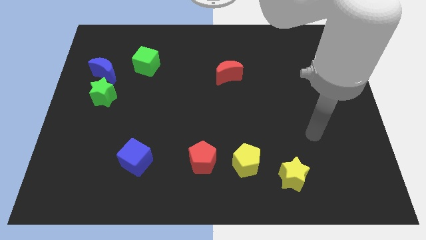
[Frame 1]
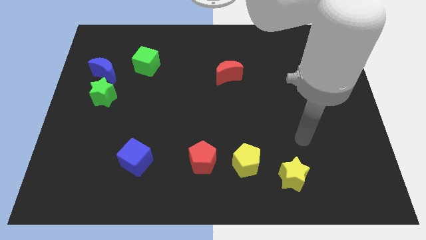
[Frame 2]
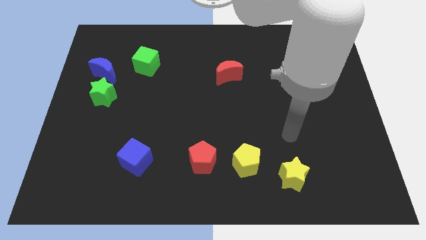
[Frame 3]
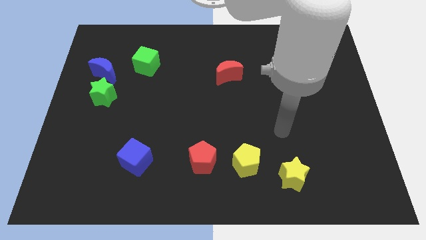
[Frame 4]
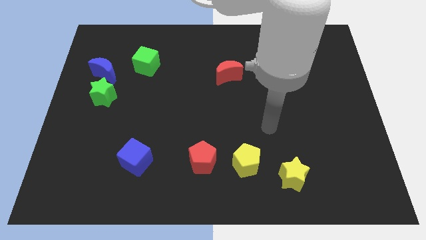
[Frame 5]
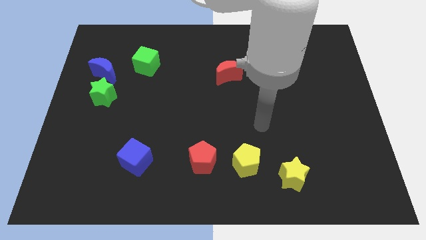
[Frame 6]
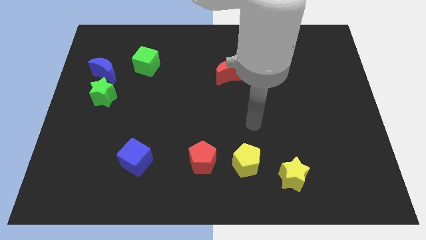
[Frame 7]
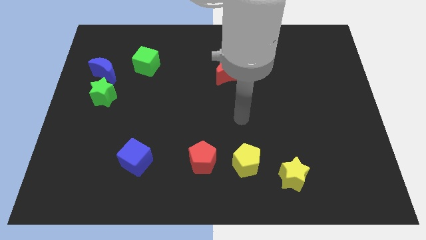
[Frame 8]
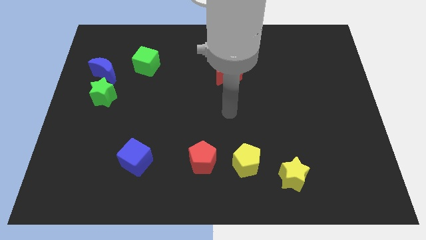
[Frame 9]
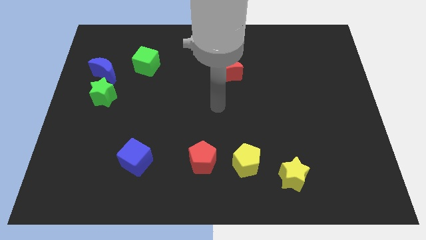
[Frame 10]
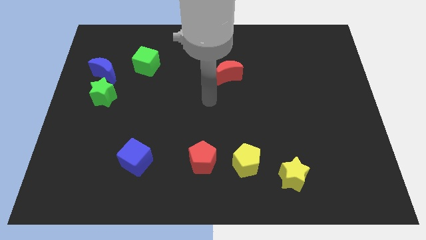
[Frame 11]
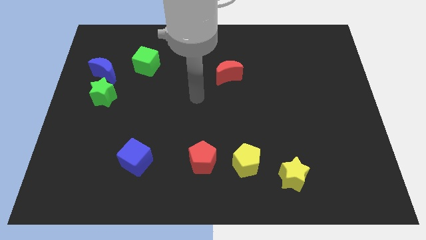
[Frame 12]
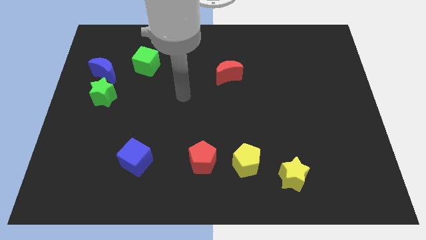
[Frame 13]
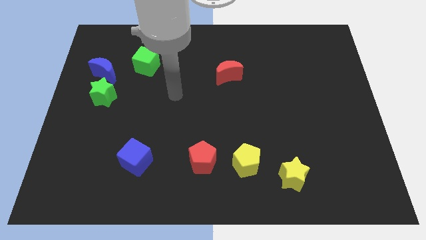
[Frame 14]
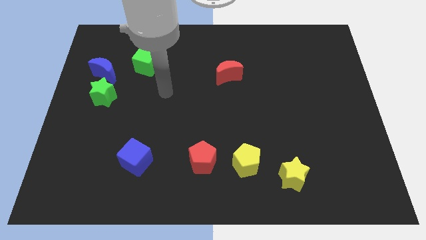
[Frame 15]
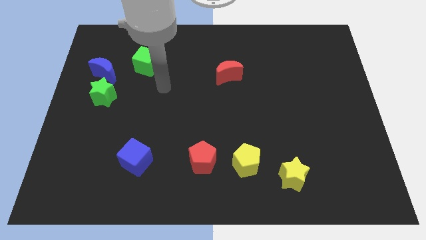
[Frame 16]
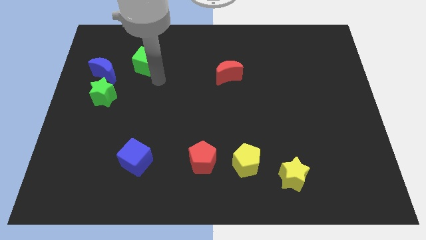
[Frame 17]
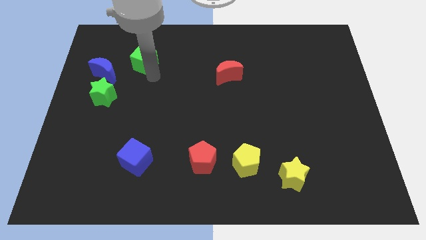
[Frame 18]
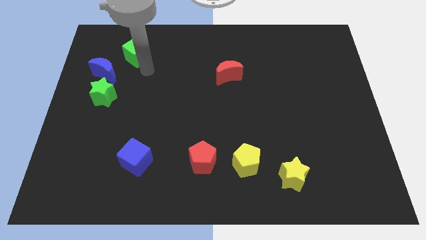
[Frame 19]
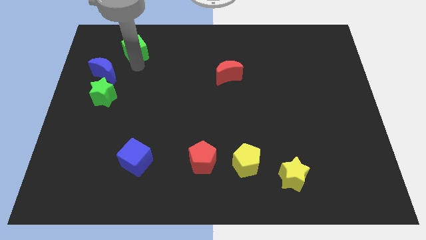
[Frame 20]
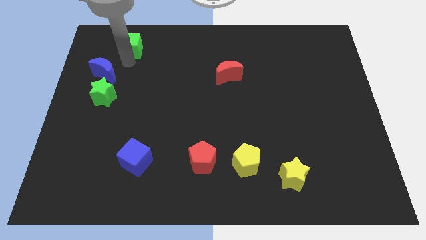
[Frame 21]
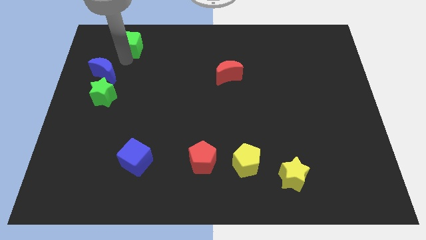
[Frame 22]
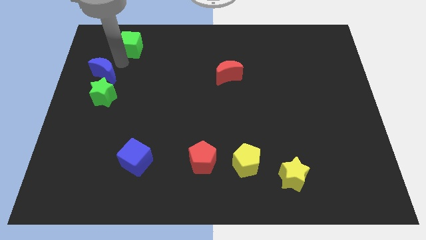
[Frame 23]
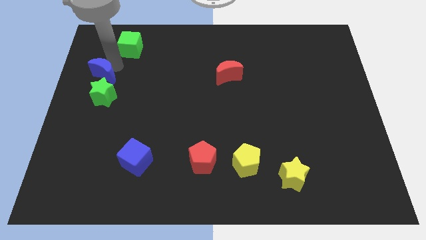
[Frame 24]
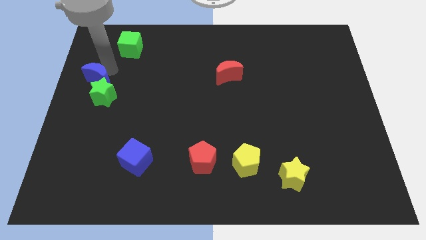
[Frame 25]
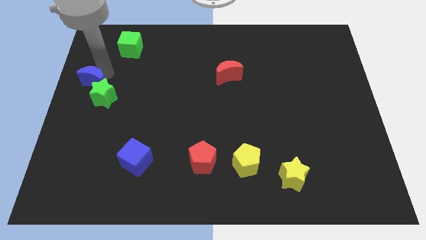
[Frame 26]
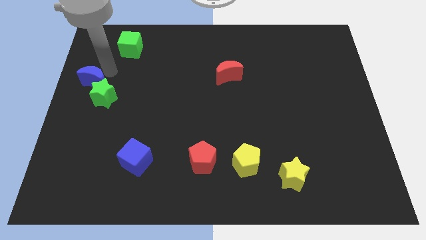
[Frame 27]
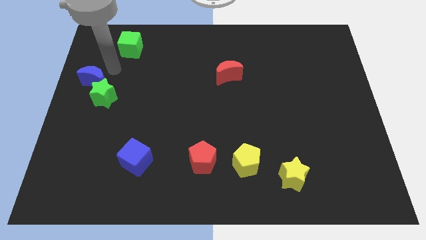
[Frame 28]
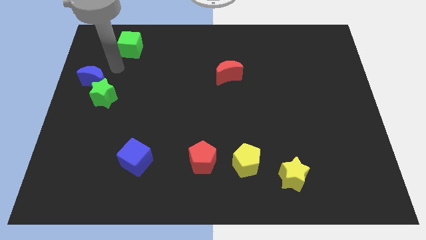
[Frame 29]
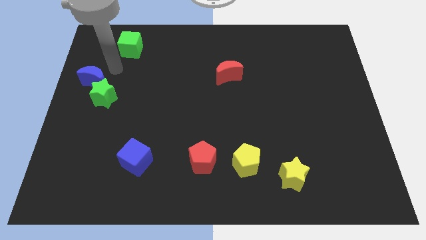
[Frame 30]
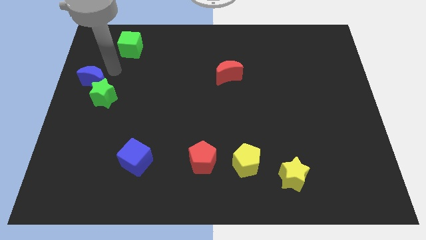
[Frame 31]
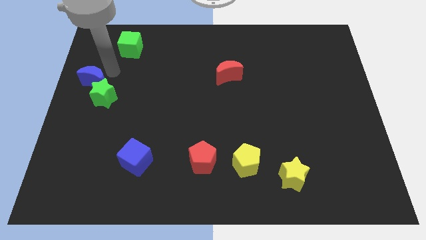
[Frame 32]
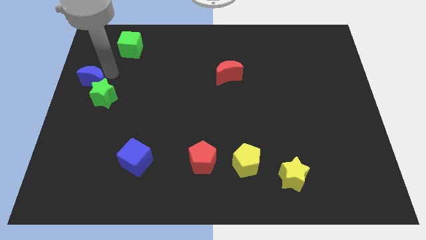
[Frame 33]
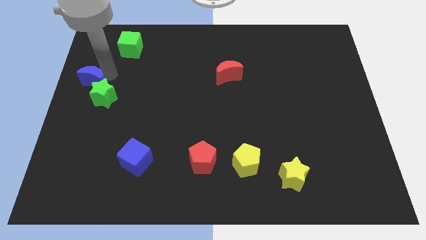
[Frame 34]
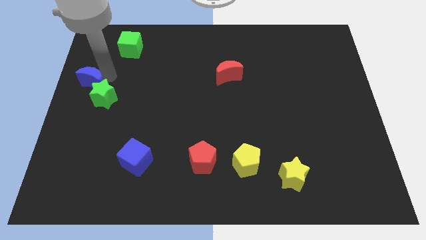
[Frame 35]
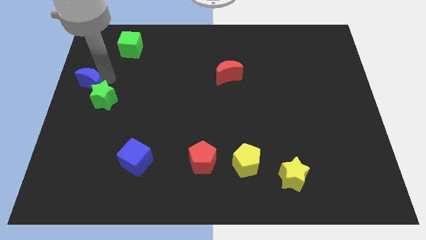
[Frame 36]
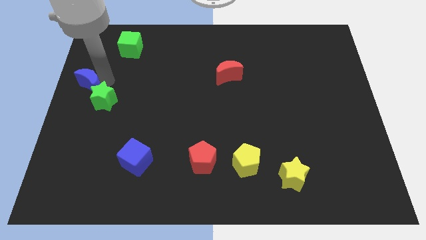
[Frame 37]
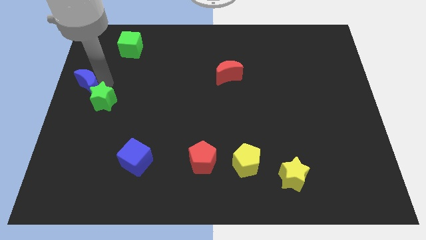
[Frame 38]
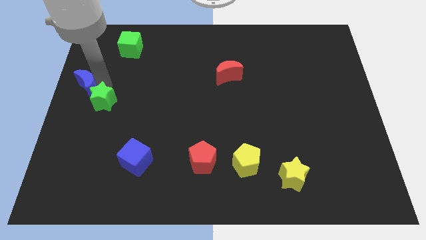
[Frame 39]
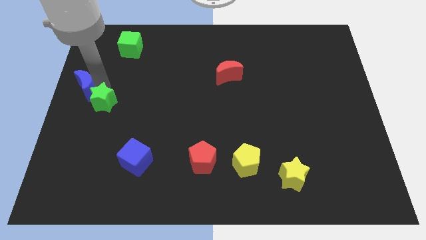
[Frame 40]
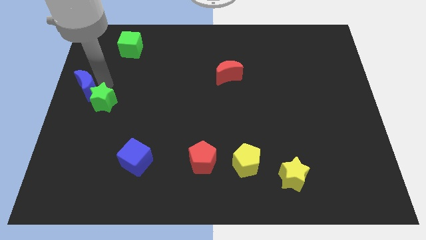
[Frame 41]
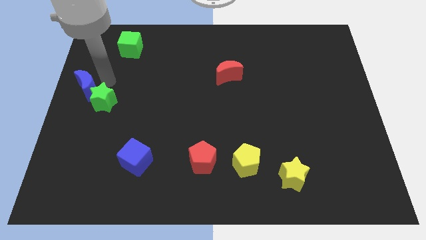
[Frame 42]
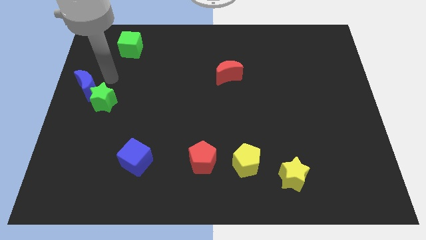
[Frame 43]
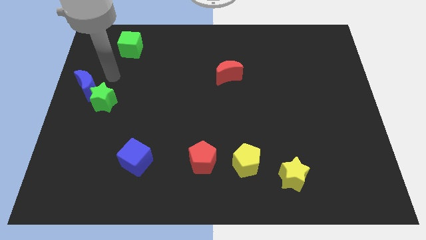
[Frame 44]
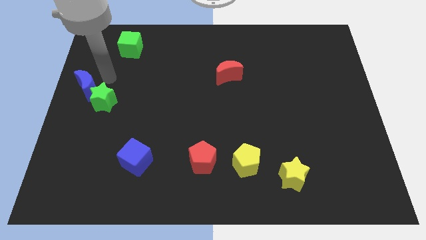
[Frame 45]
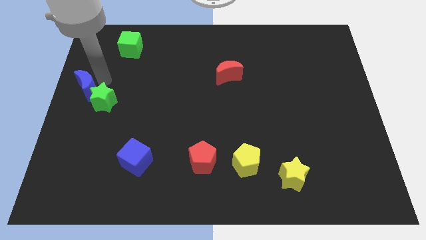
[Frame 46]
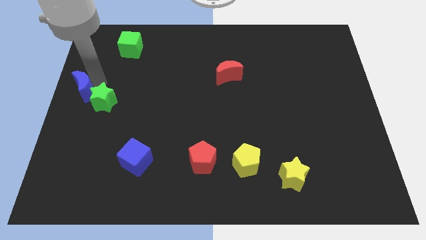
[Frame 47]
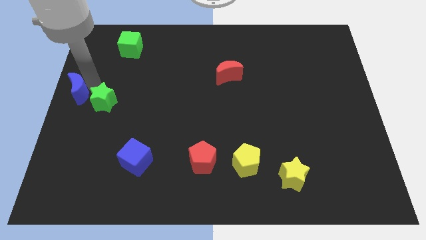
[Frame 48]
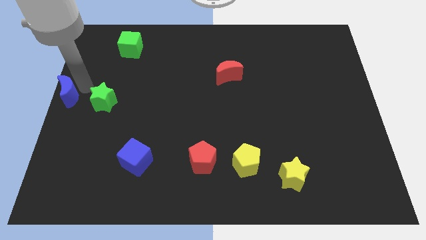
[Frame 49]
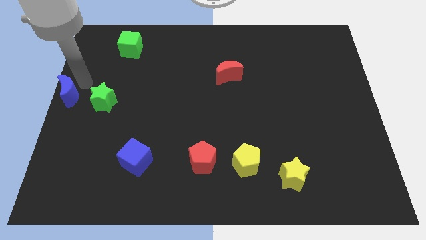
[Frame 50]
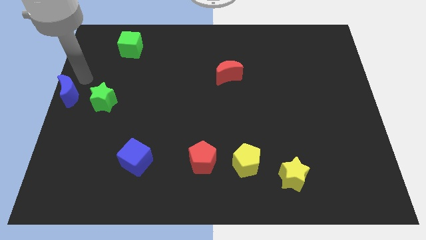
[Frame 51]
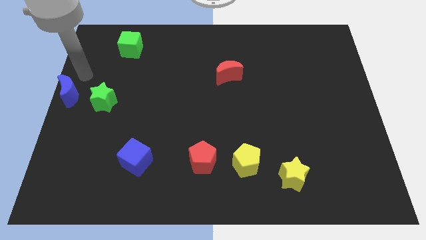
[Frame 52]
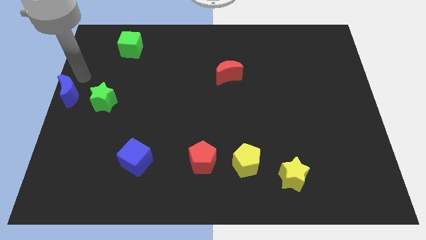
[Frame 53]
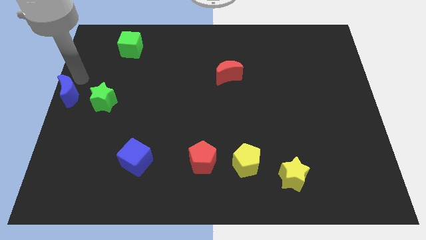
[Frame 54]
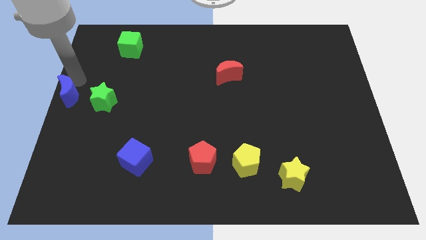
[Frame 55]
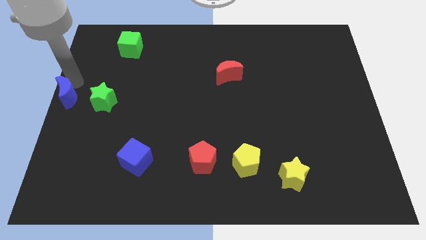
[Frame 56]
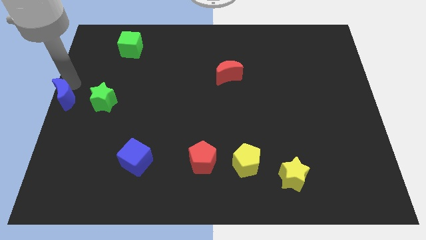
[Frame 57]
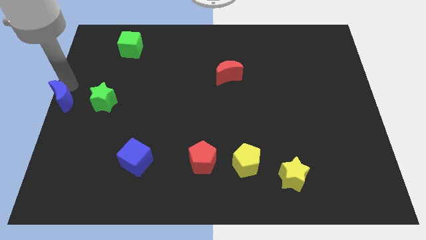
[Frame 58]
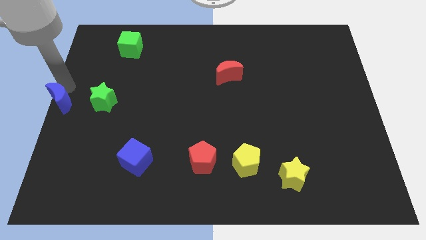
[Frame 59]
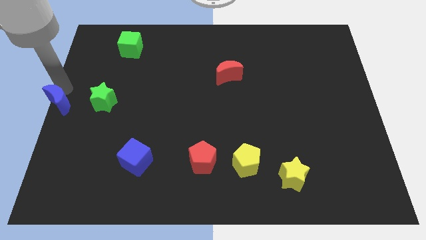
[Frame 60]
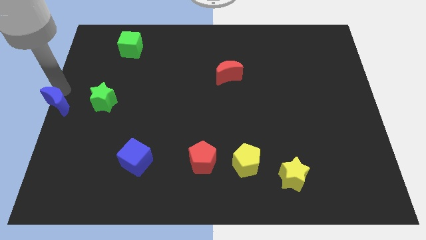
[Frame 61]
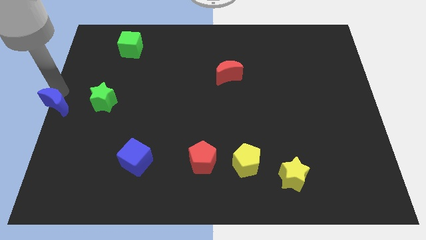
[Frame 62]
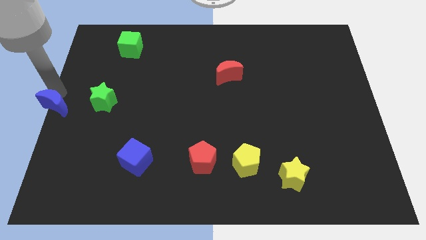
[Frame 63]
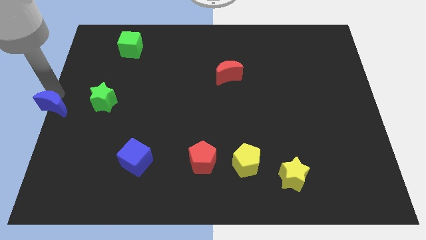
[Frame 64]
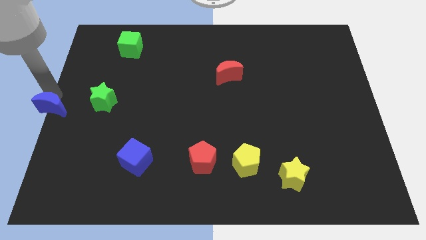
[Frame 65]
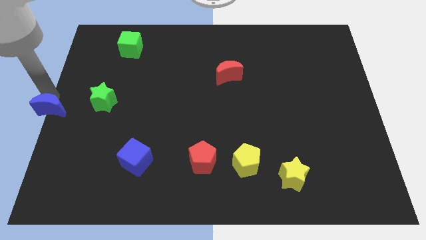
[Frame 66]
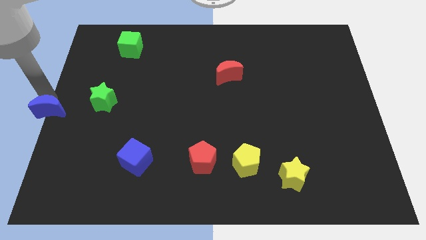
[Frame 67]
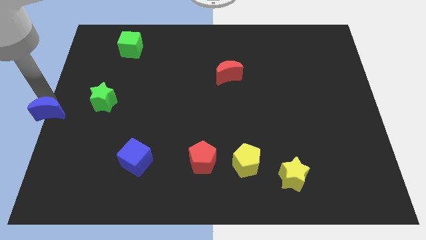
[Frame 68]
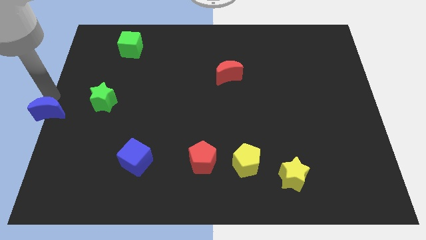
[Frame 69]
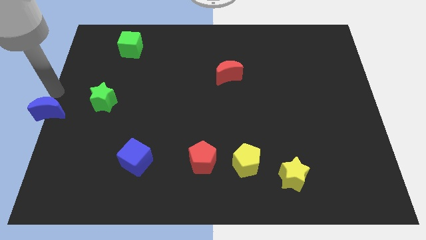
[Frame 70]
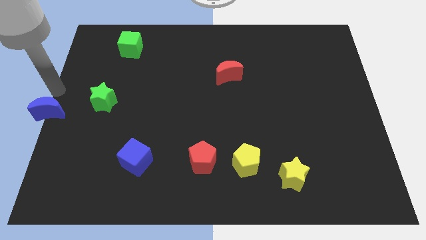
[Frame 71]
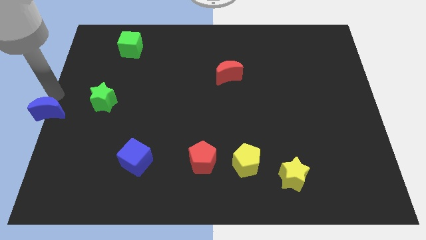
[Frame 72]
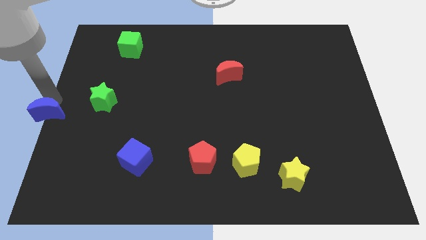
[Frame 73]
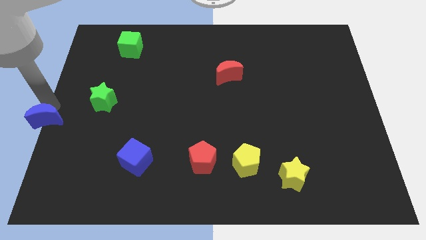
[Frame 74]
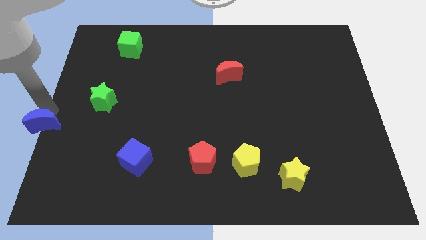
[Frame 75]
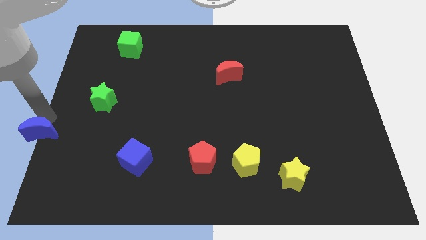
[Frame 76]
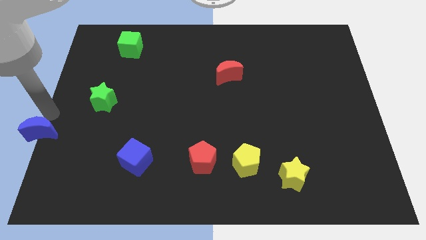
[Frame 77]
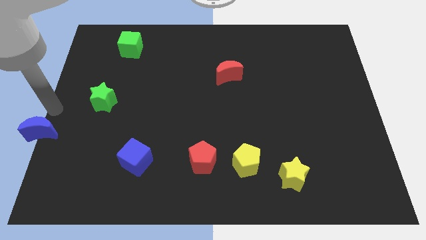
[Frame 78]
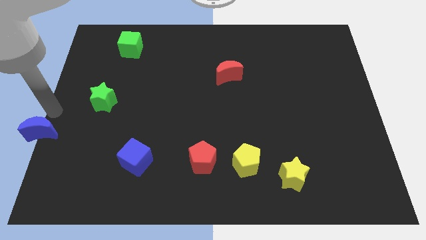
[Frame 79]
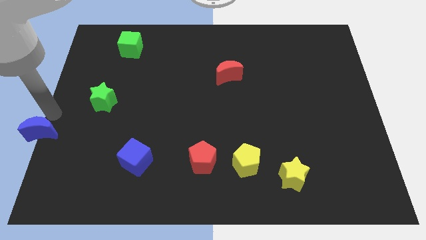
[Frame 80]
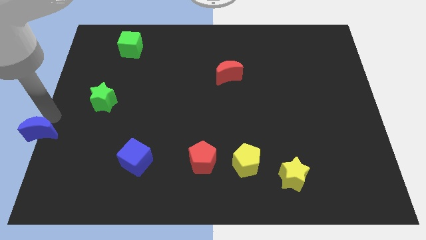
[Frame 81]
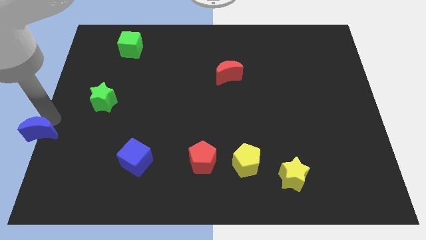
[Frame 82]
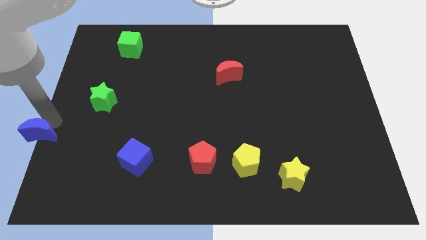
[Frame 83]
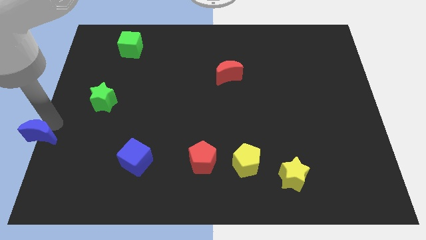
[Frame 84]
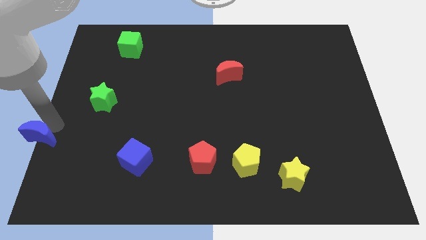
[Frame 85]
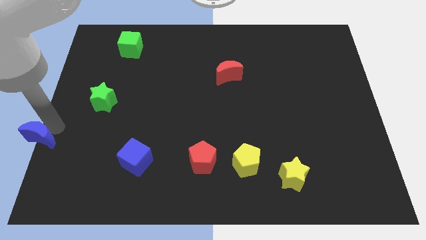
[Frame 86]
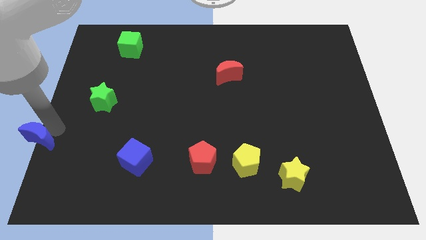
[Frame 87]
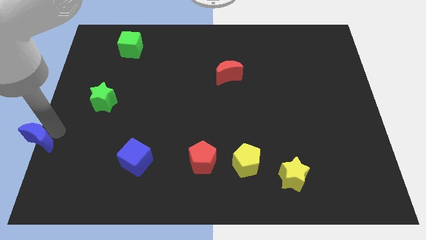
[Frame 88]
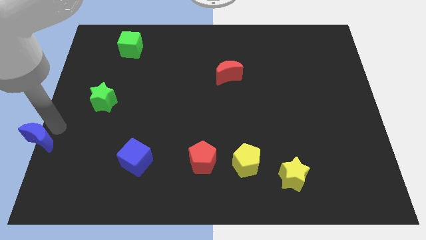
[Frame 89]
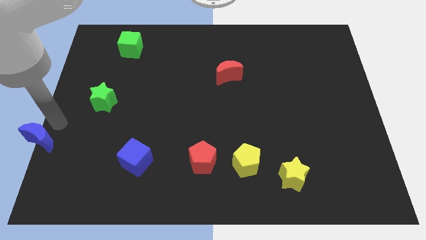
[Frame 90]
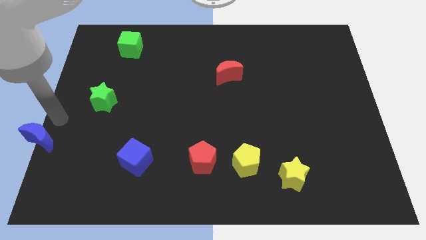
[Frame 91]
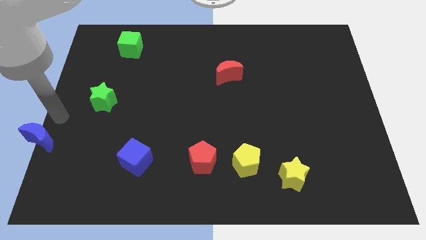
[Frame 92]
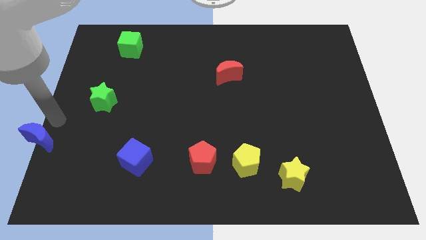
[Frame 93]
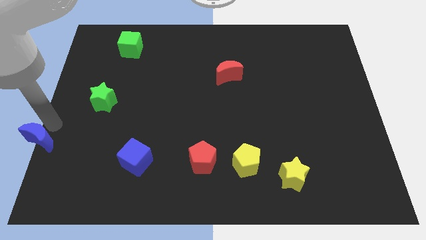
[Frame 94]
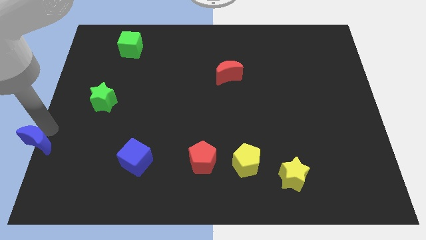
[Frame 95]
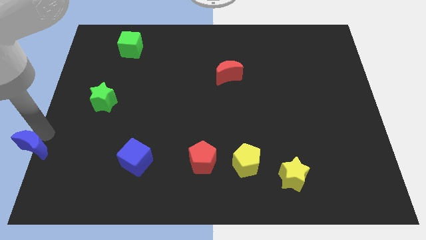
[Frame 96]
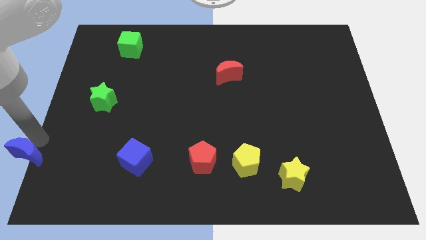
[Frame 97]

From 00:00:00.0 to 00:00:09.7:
slide the blue moon to the bottom left corner
